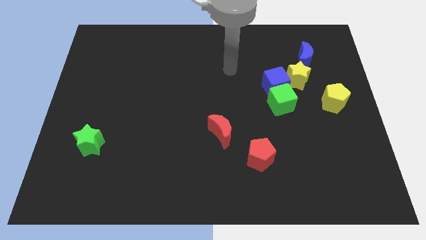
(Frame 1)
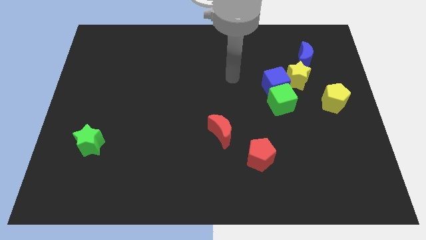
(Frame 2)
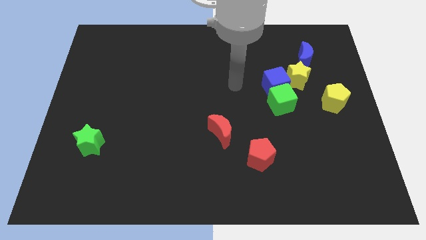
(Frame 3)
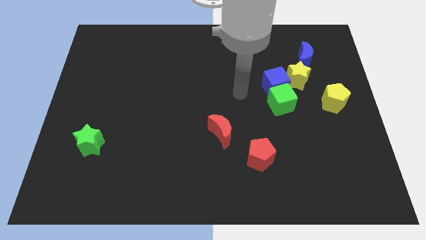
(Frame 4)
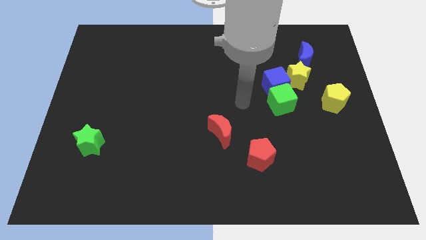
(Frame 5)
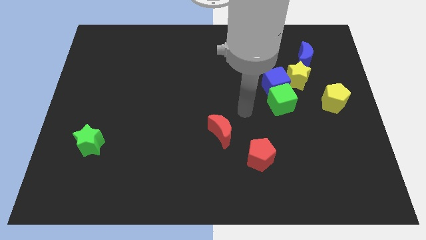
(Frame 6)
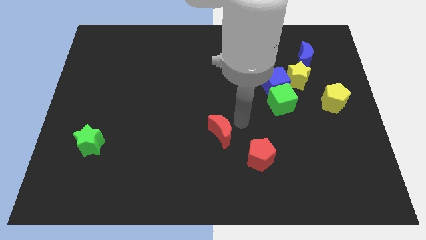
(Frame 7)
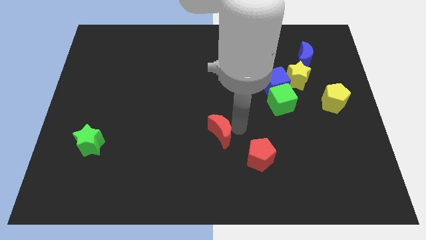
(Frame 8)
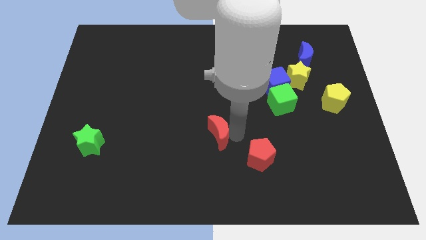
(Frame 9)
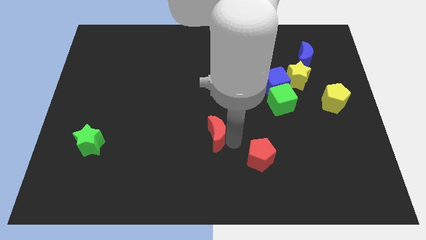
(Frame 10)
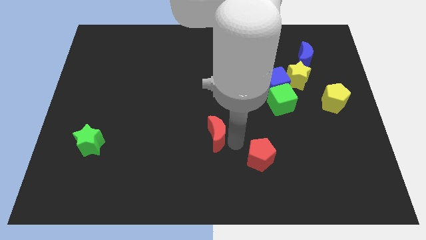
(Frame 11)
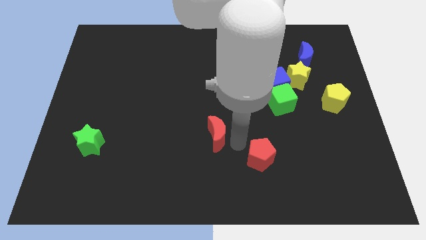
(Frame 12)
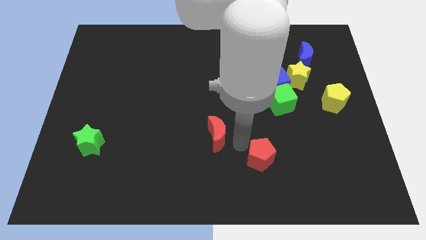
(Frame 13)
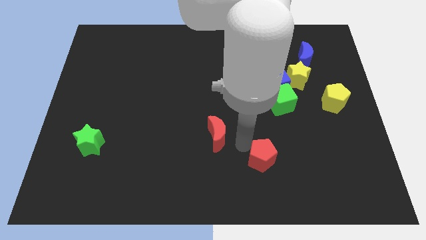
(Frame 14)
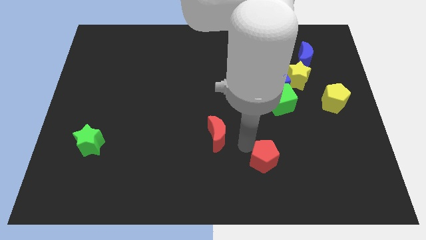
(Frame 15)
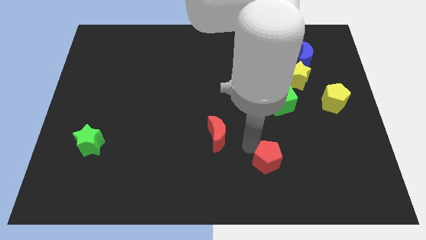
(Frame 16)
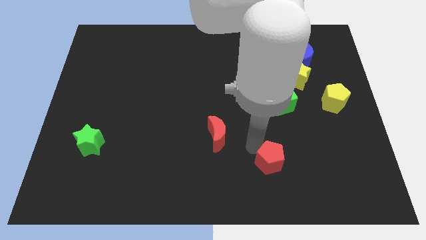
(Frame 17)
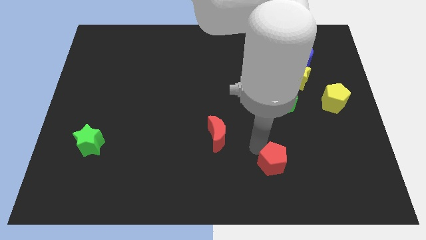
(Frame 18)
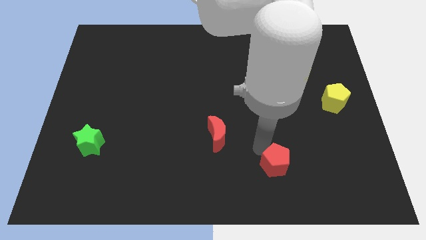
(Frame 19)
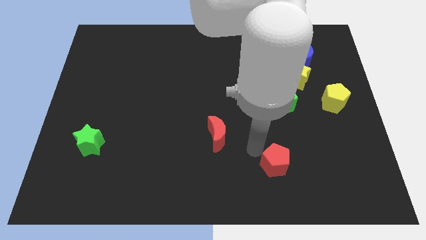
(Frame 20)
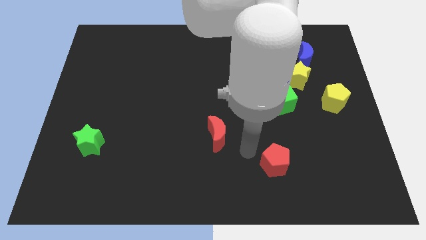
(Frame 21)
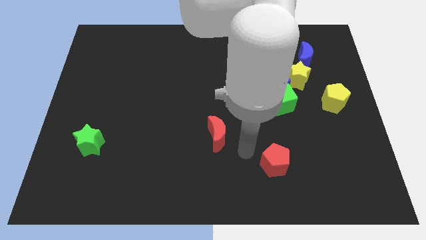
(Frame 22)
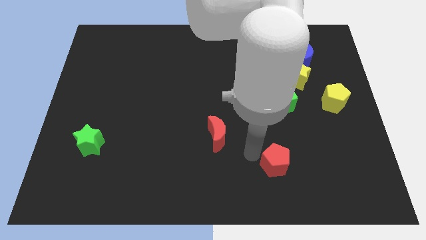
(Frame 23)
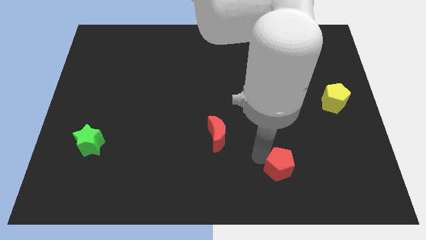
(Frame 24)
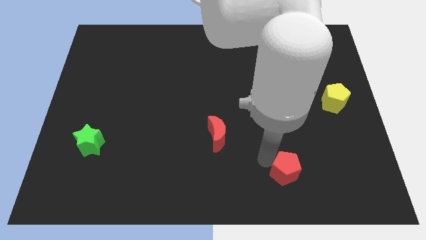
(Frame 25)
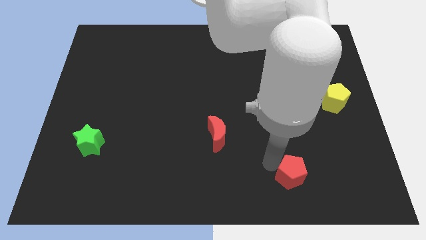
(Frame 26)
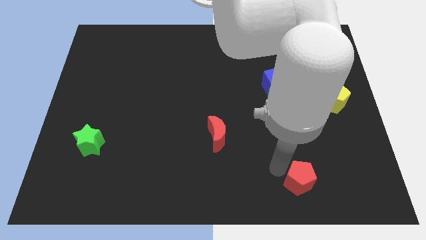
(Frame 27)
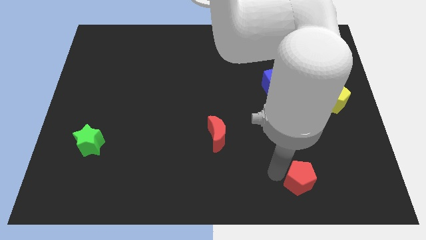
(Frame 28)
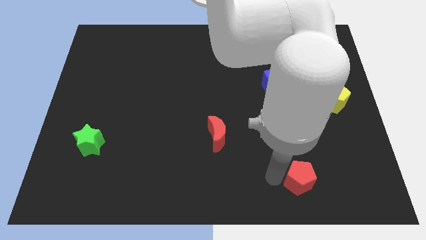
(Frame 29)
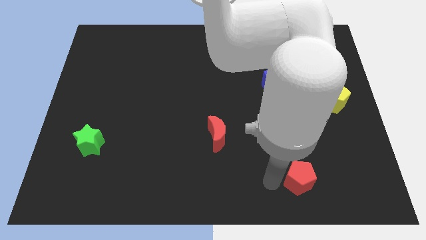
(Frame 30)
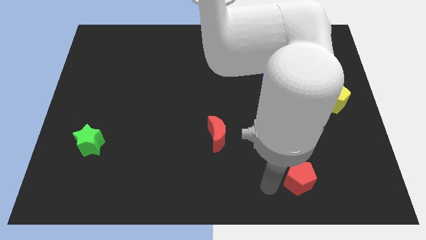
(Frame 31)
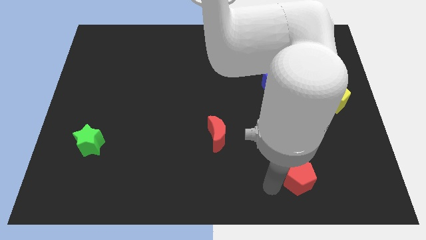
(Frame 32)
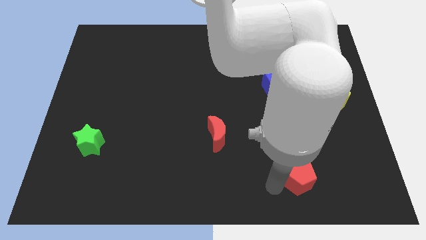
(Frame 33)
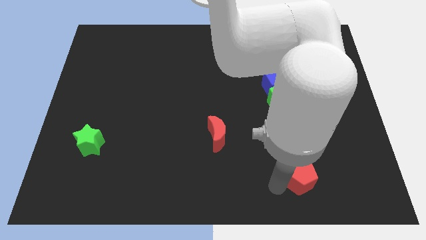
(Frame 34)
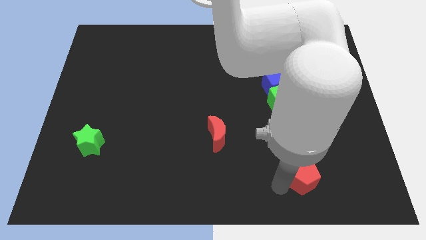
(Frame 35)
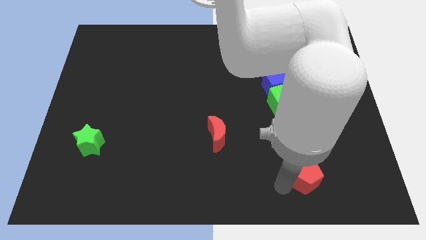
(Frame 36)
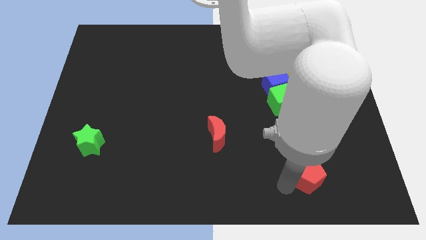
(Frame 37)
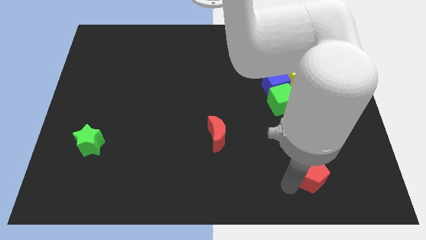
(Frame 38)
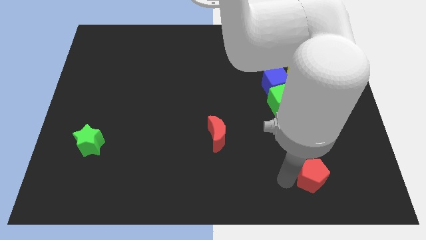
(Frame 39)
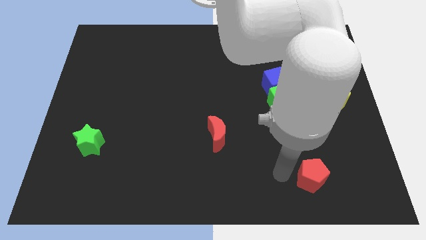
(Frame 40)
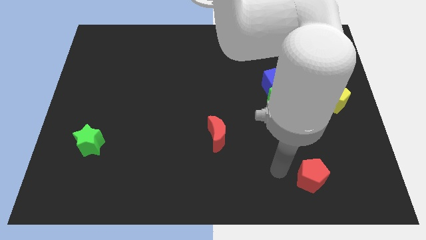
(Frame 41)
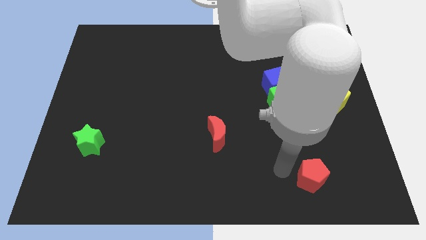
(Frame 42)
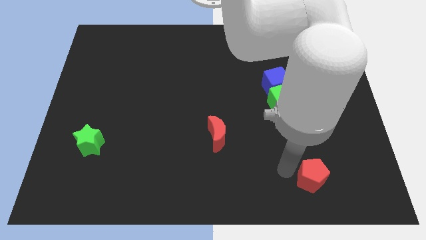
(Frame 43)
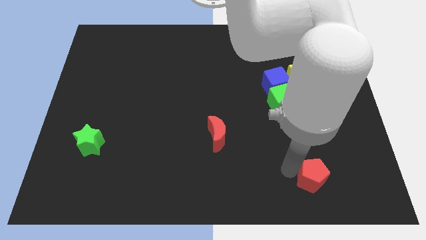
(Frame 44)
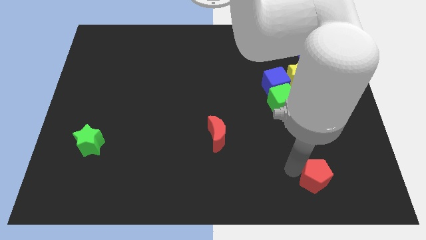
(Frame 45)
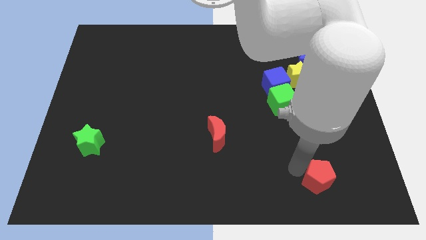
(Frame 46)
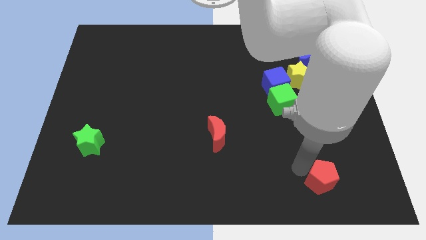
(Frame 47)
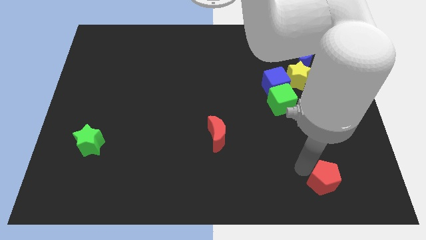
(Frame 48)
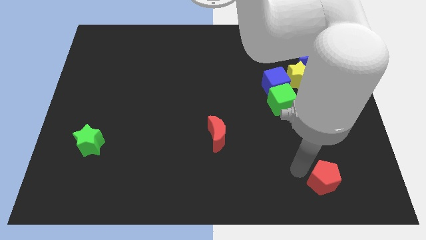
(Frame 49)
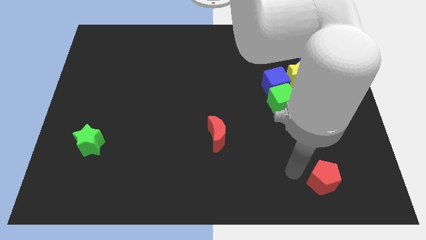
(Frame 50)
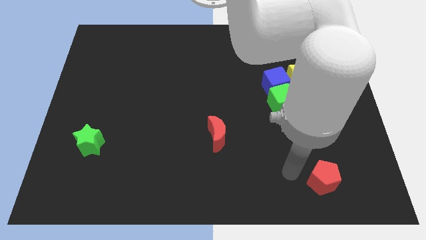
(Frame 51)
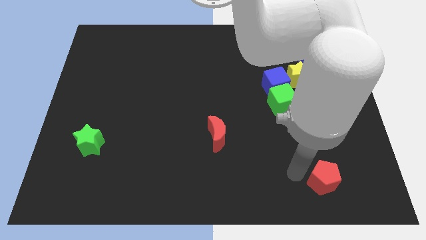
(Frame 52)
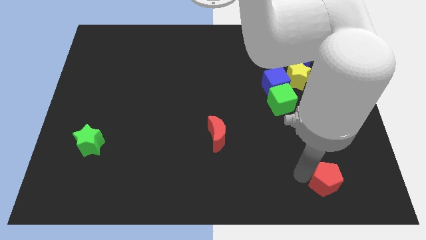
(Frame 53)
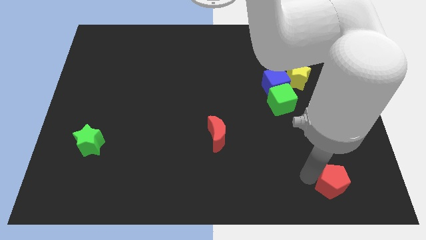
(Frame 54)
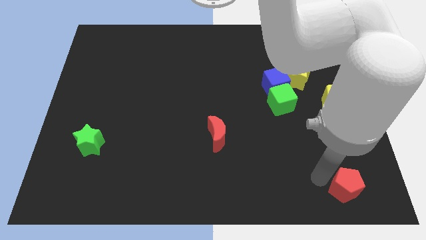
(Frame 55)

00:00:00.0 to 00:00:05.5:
slide the red pentagon to the bottom right
